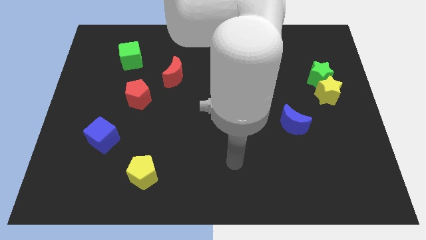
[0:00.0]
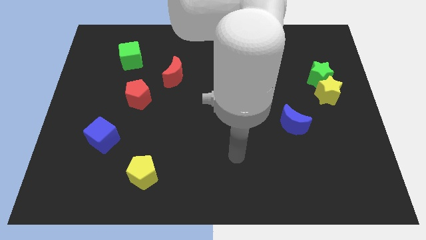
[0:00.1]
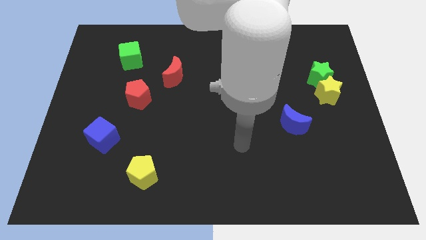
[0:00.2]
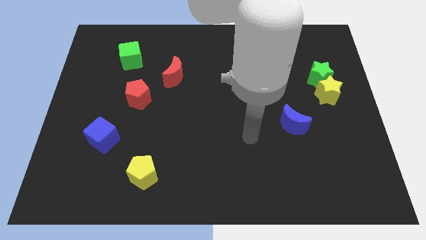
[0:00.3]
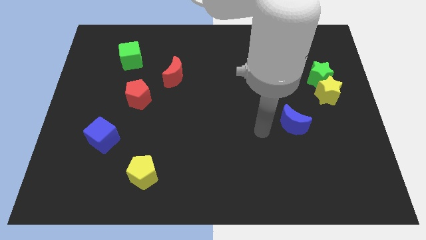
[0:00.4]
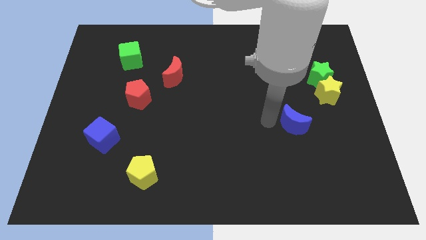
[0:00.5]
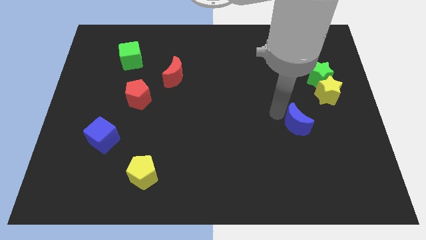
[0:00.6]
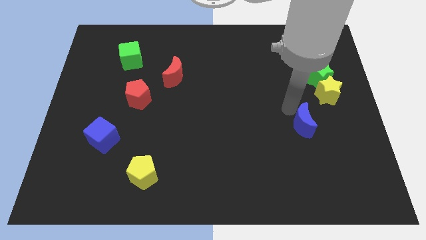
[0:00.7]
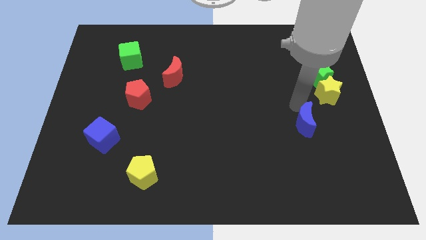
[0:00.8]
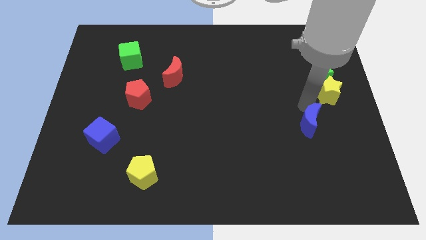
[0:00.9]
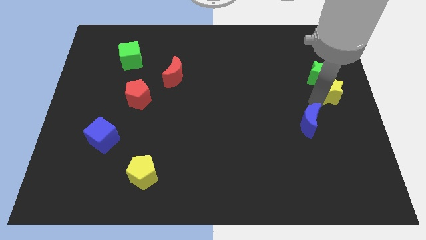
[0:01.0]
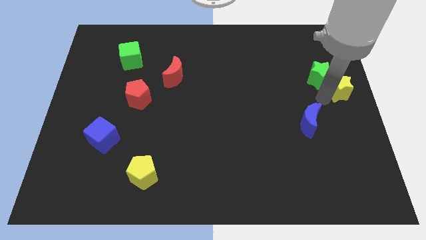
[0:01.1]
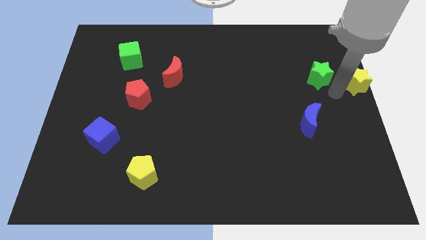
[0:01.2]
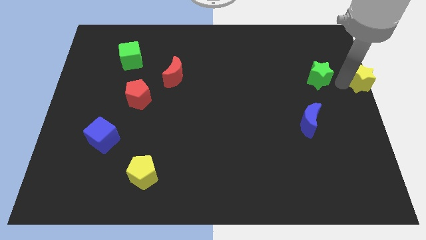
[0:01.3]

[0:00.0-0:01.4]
pull the green star apart from the yellow star

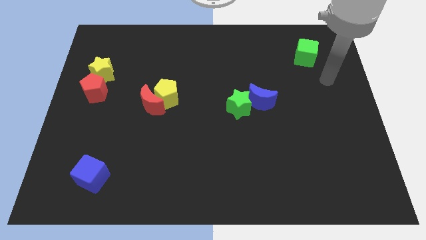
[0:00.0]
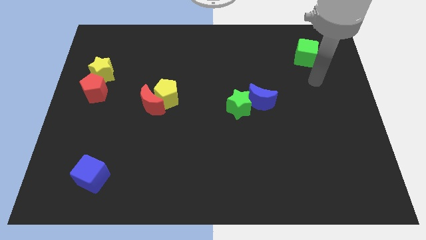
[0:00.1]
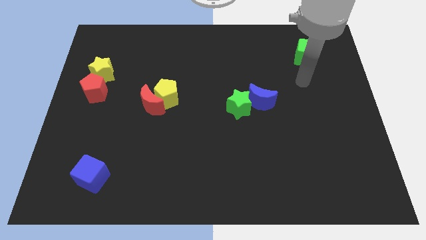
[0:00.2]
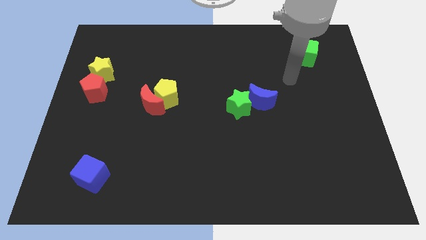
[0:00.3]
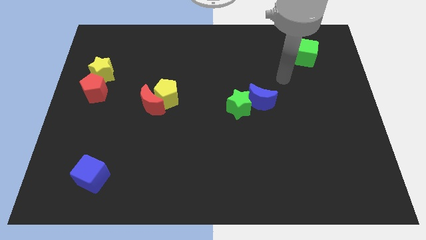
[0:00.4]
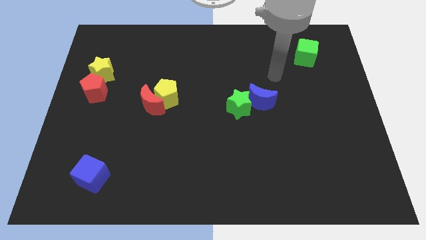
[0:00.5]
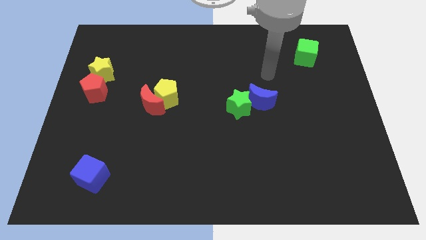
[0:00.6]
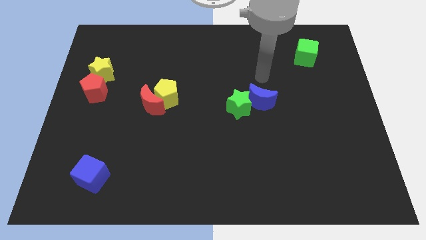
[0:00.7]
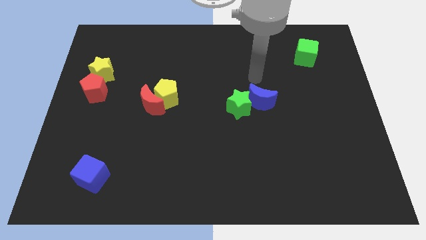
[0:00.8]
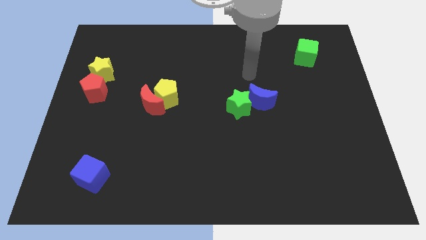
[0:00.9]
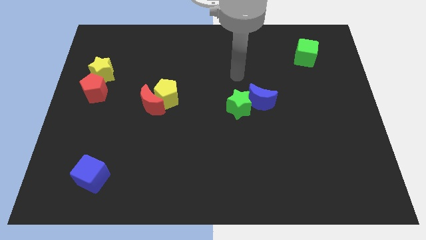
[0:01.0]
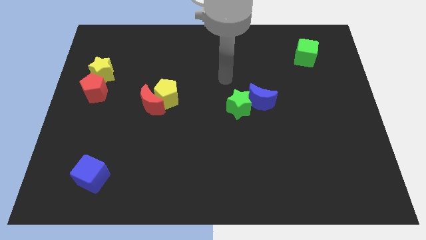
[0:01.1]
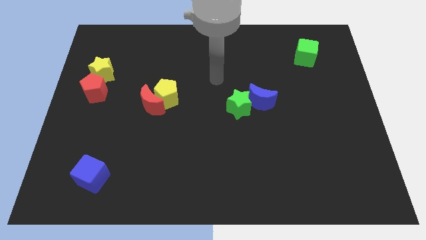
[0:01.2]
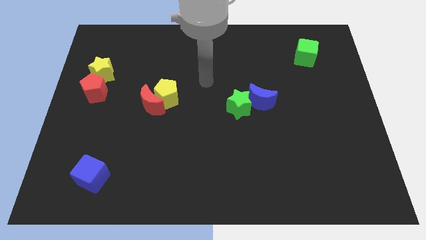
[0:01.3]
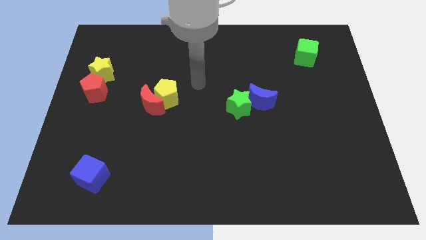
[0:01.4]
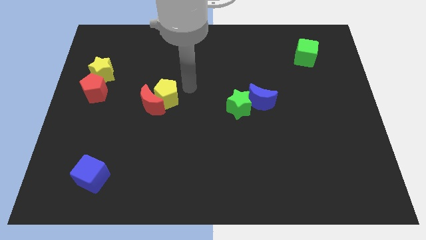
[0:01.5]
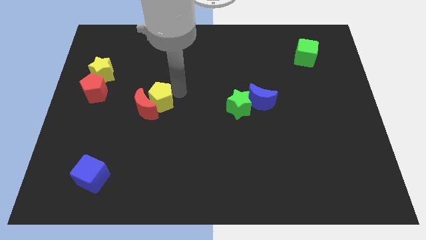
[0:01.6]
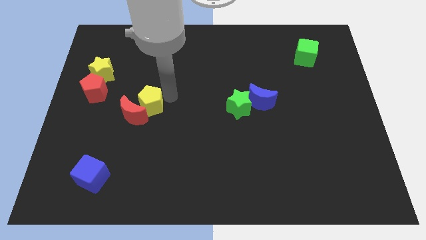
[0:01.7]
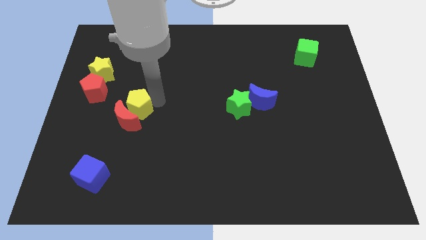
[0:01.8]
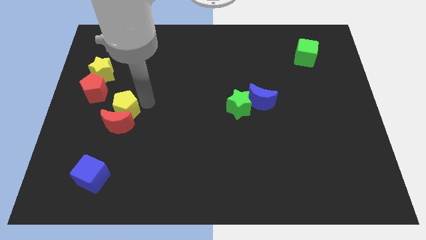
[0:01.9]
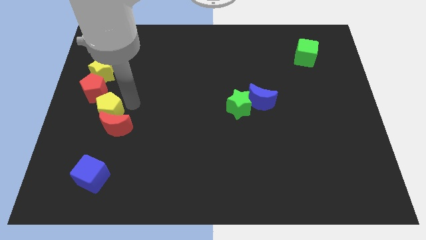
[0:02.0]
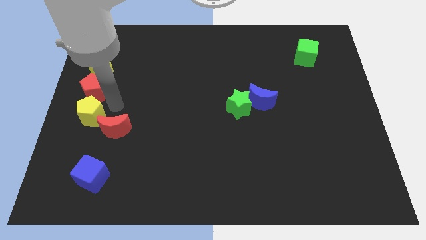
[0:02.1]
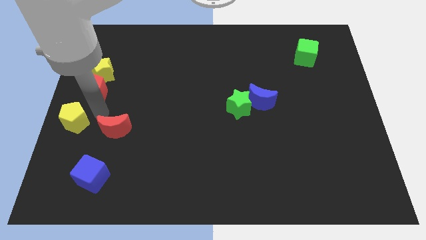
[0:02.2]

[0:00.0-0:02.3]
move the red moon away from the yellow pentagon

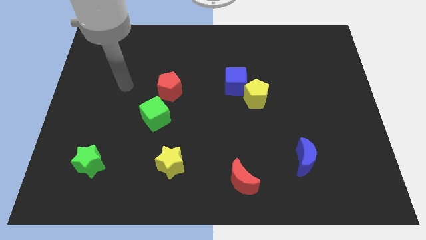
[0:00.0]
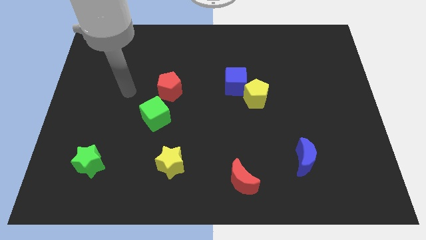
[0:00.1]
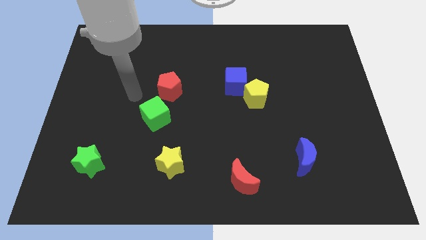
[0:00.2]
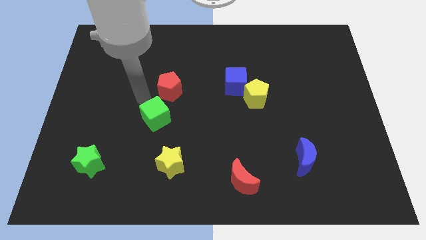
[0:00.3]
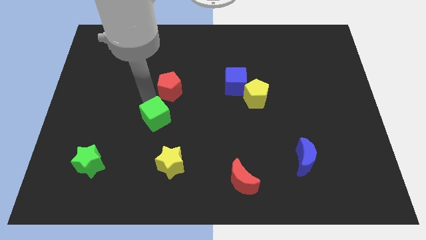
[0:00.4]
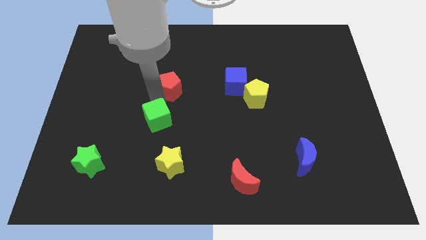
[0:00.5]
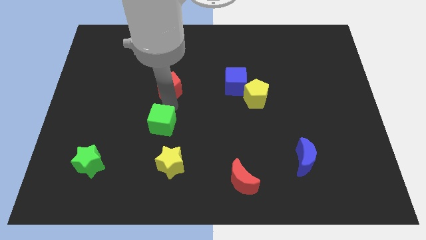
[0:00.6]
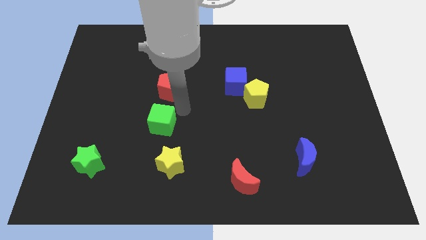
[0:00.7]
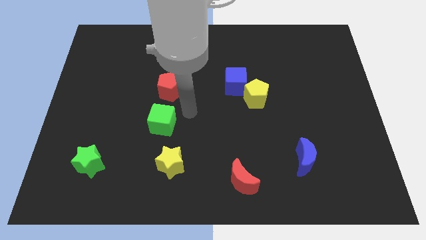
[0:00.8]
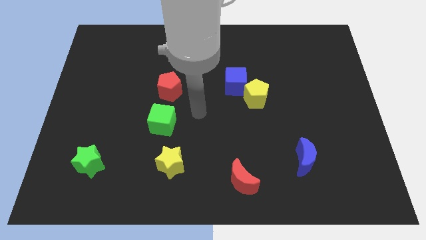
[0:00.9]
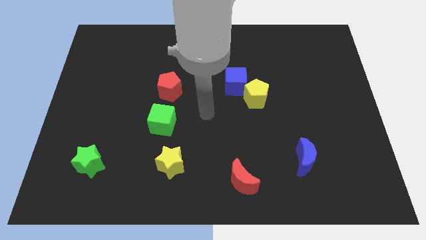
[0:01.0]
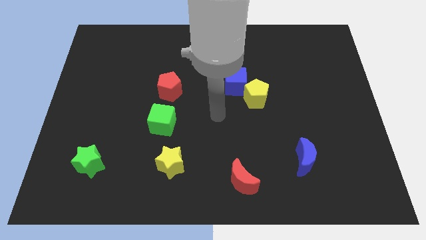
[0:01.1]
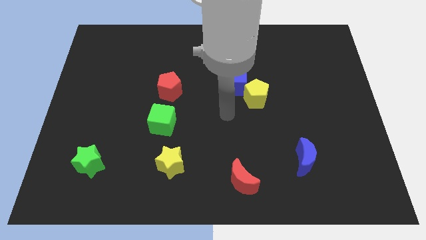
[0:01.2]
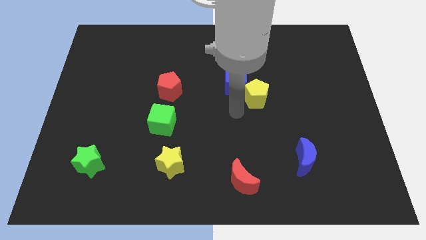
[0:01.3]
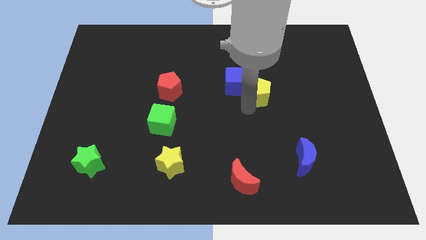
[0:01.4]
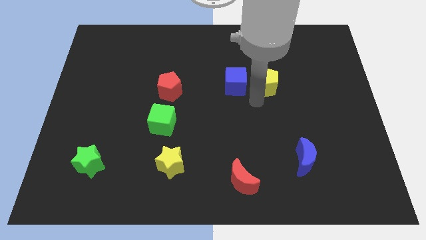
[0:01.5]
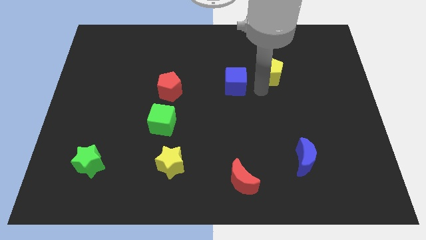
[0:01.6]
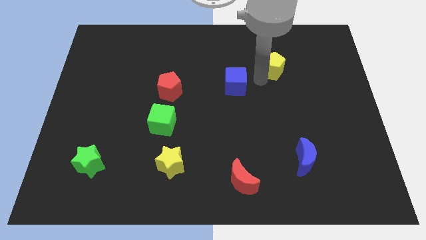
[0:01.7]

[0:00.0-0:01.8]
separate the blue cube from the yellow pentagon

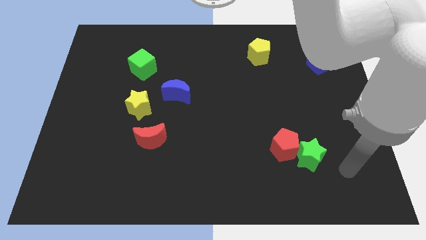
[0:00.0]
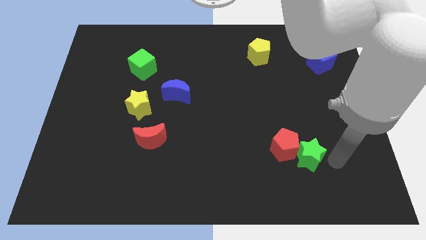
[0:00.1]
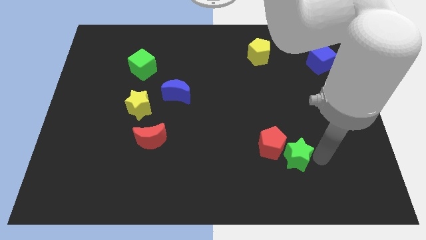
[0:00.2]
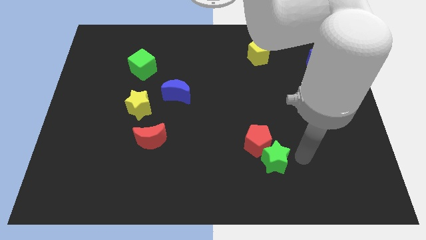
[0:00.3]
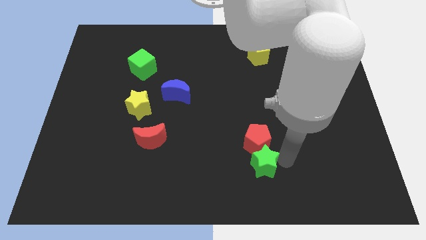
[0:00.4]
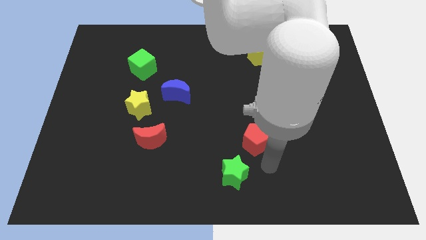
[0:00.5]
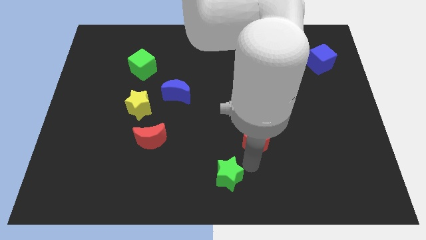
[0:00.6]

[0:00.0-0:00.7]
move the red pentagon away from the green star

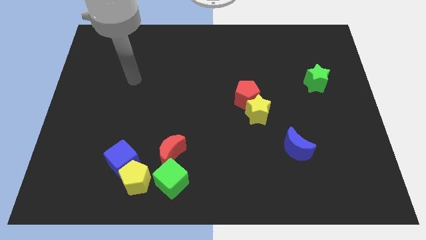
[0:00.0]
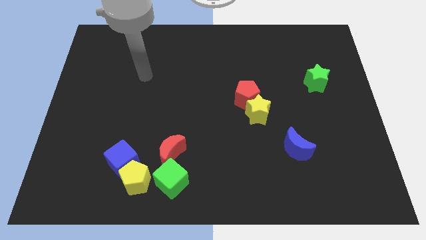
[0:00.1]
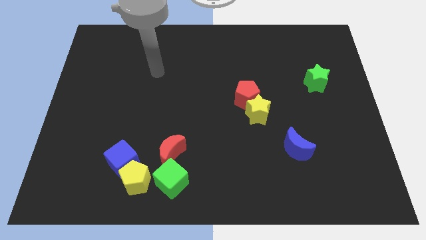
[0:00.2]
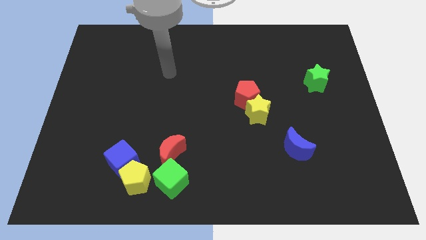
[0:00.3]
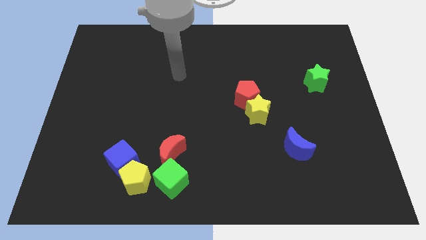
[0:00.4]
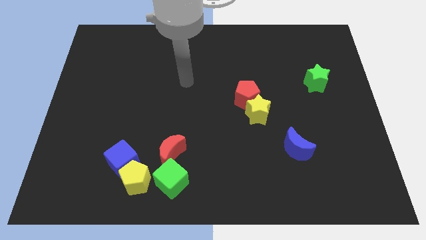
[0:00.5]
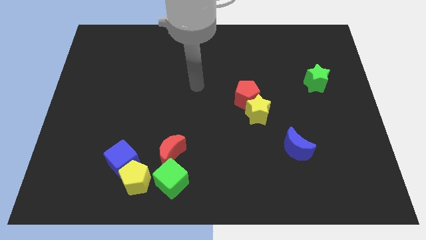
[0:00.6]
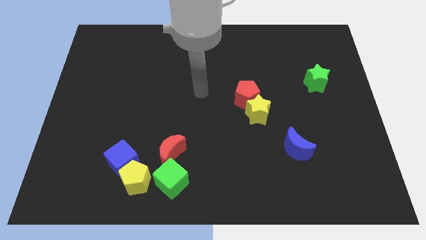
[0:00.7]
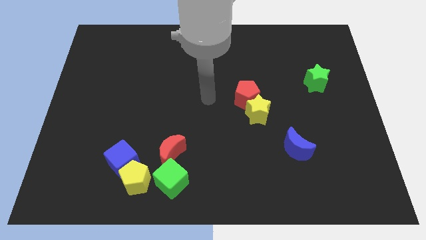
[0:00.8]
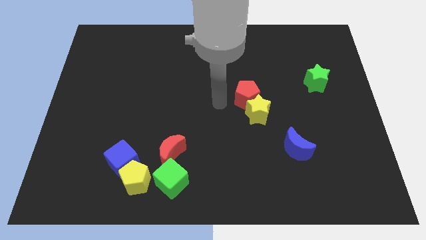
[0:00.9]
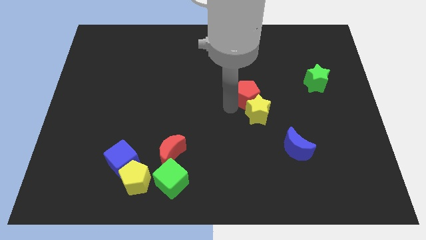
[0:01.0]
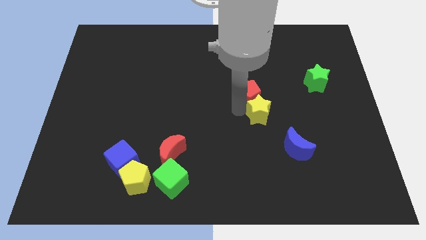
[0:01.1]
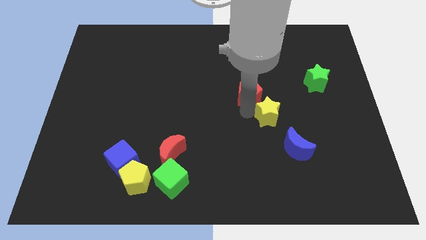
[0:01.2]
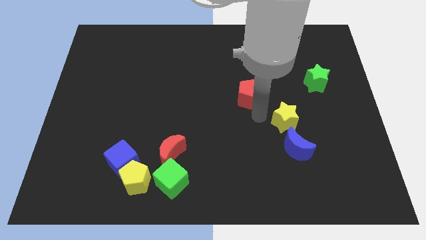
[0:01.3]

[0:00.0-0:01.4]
move the red pentagon away from the yellow star

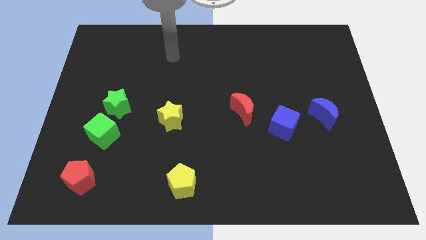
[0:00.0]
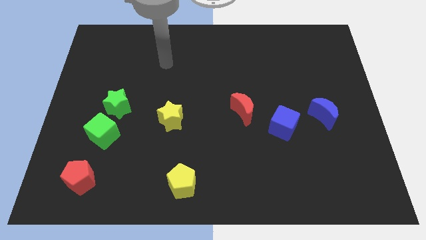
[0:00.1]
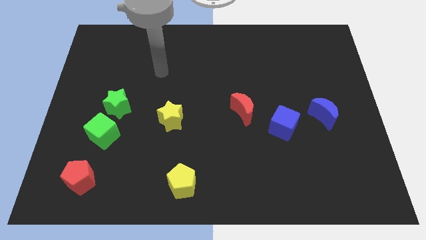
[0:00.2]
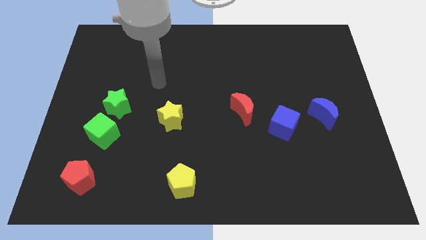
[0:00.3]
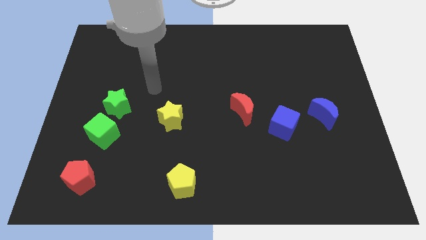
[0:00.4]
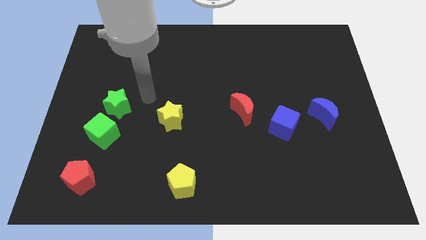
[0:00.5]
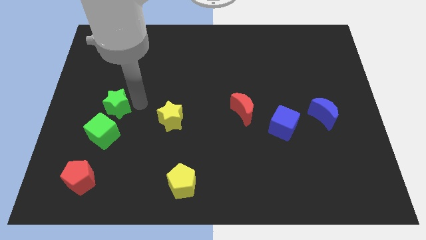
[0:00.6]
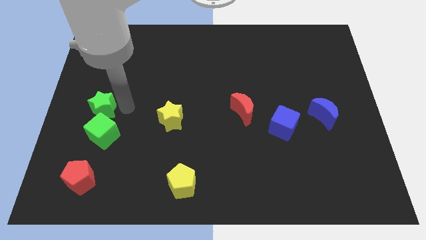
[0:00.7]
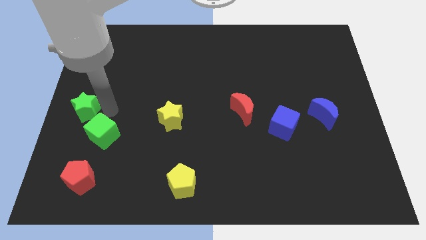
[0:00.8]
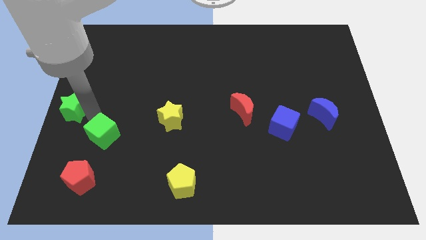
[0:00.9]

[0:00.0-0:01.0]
move the green cube away from the green star
